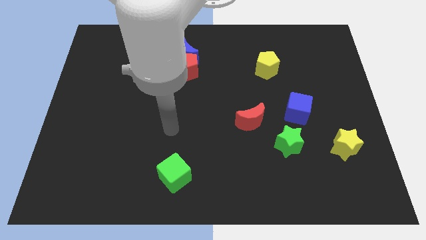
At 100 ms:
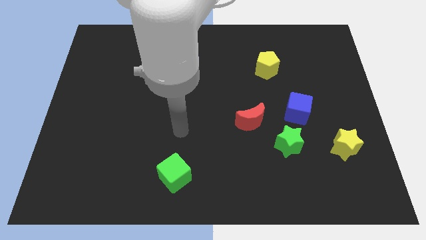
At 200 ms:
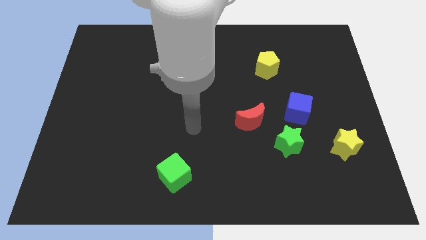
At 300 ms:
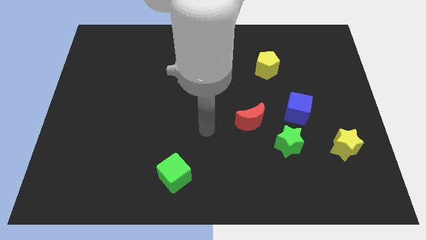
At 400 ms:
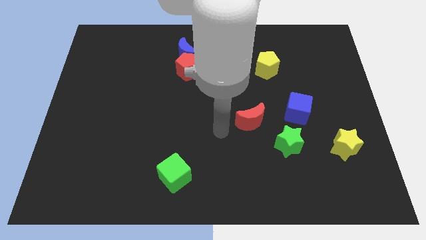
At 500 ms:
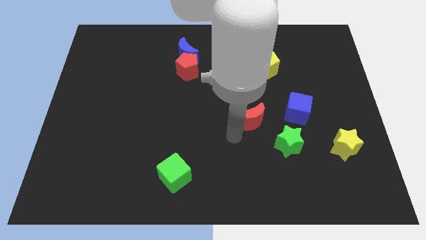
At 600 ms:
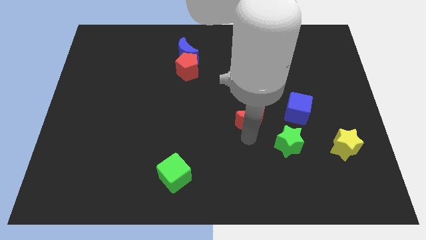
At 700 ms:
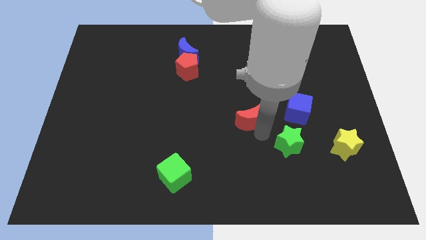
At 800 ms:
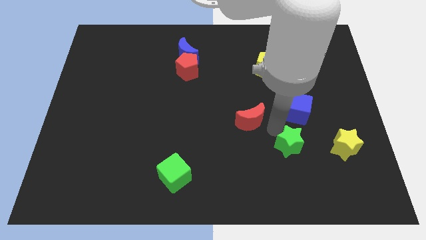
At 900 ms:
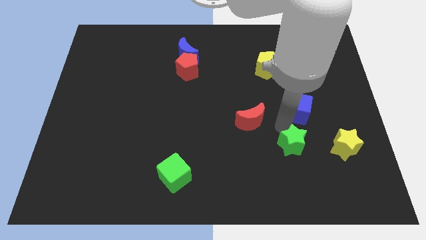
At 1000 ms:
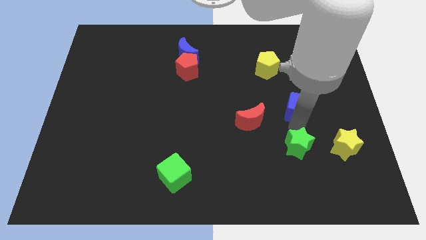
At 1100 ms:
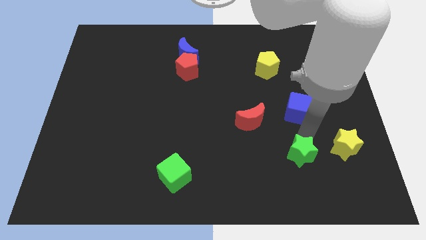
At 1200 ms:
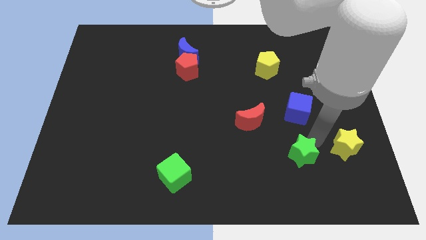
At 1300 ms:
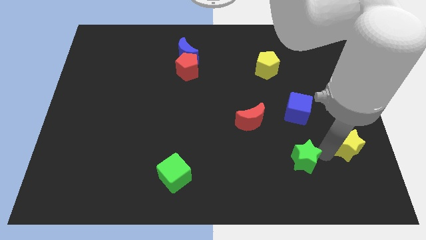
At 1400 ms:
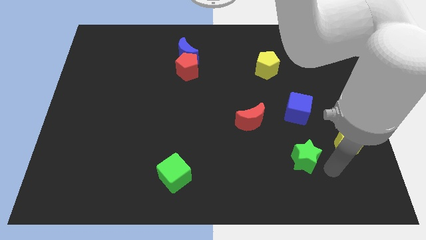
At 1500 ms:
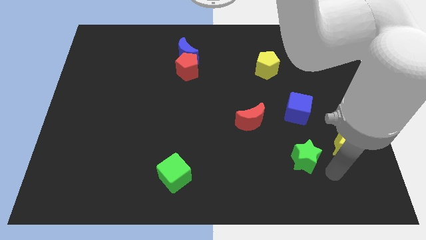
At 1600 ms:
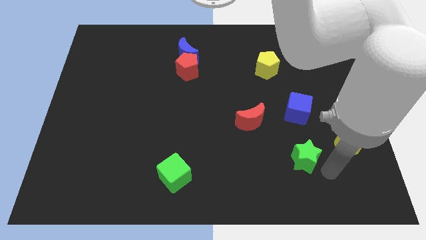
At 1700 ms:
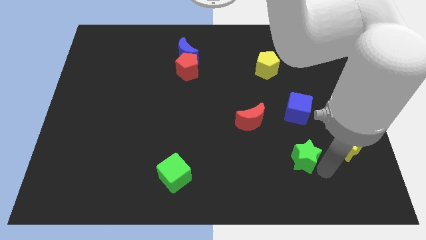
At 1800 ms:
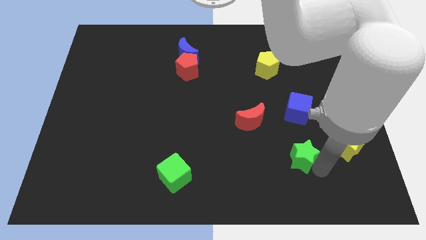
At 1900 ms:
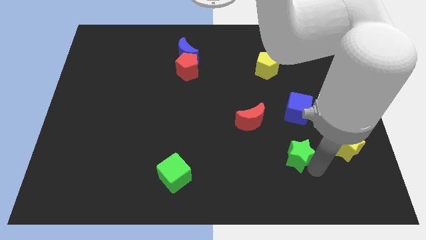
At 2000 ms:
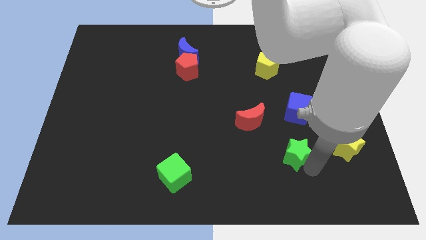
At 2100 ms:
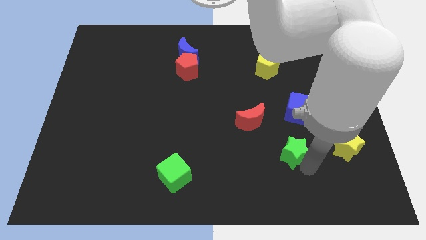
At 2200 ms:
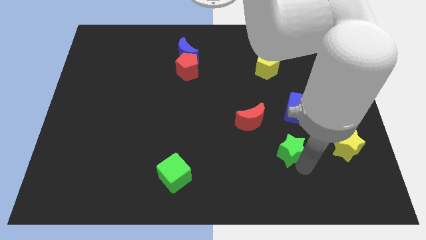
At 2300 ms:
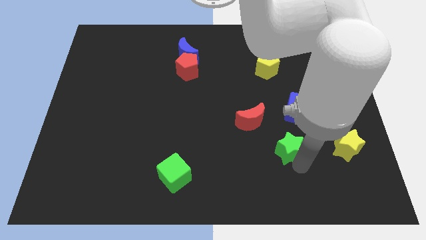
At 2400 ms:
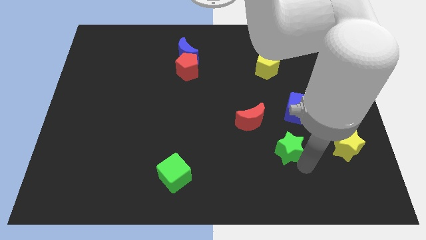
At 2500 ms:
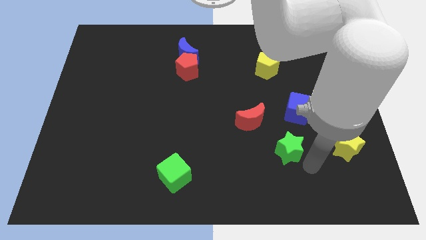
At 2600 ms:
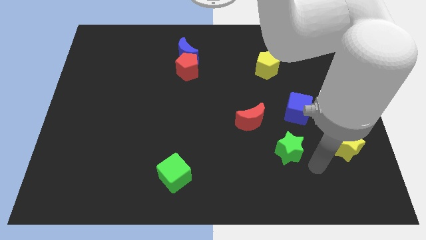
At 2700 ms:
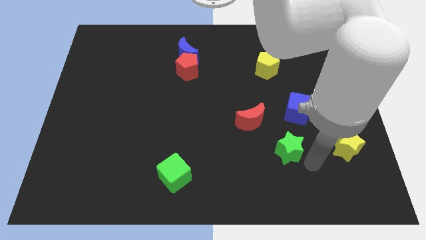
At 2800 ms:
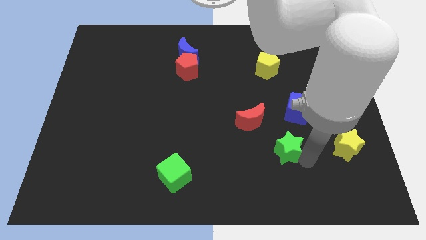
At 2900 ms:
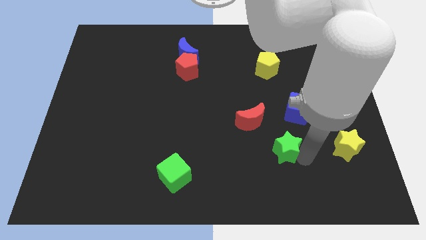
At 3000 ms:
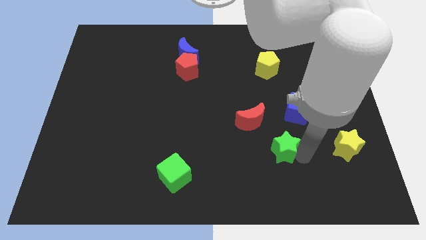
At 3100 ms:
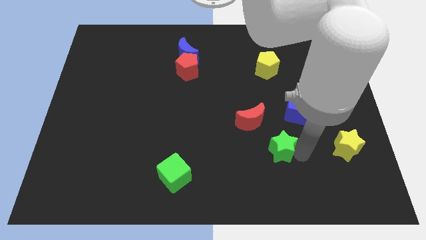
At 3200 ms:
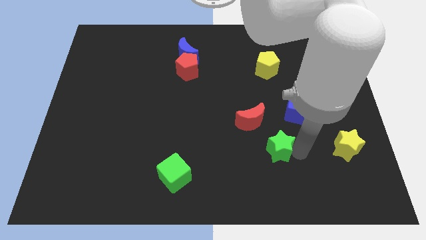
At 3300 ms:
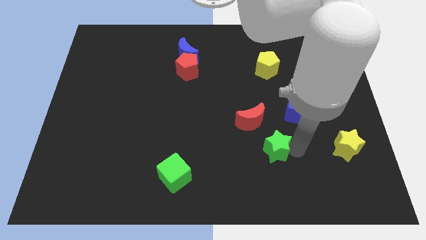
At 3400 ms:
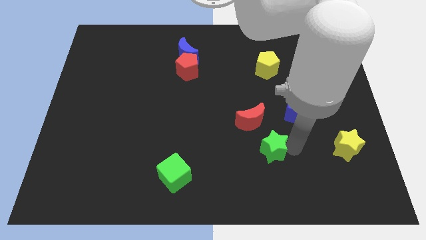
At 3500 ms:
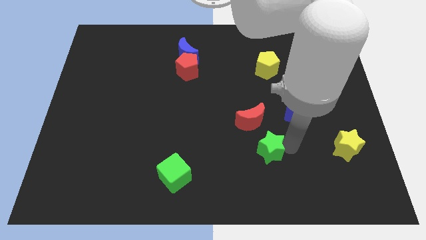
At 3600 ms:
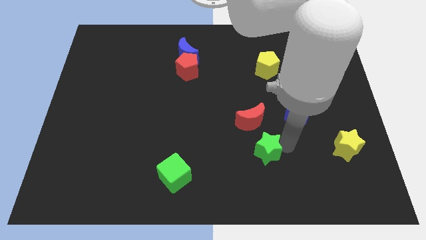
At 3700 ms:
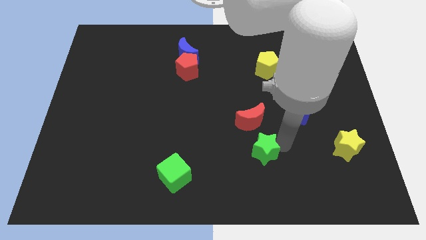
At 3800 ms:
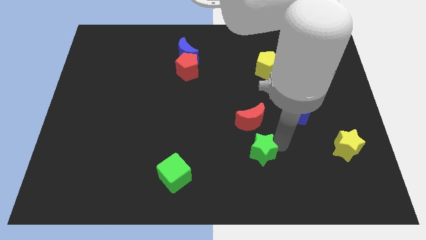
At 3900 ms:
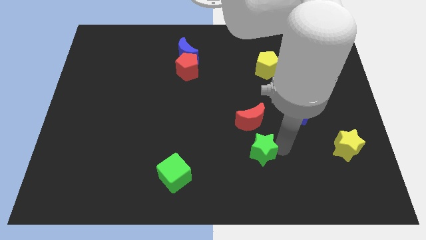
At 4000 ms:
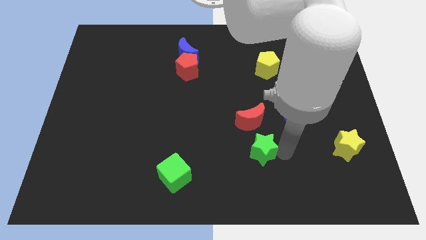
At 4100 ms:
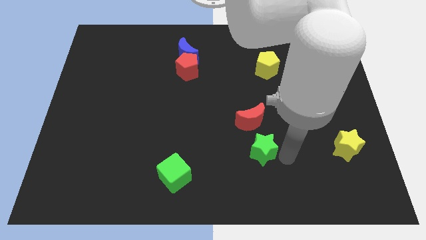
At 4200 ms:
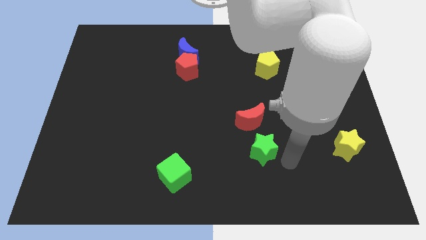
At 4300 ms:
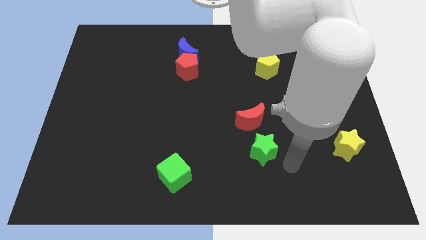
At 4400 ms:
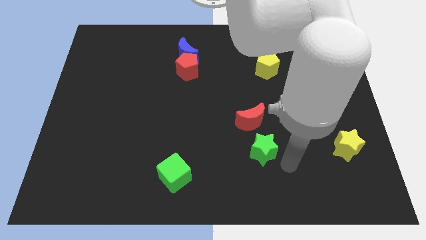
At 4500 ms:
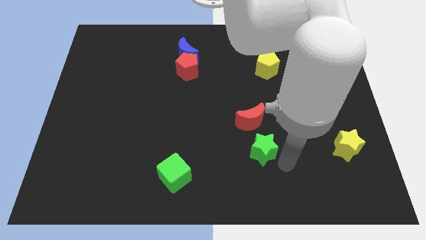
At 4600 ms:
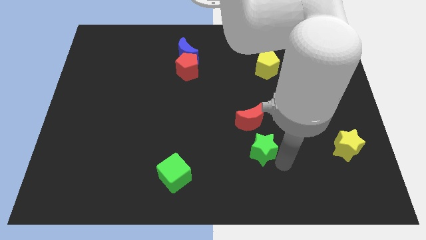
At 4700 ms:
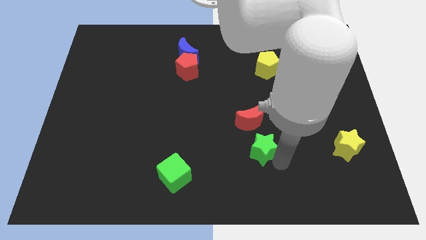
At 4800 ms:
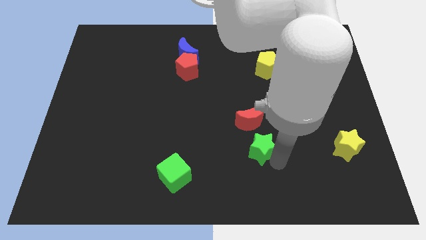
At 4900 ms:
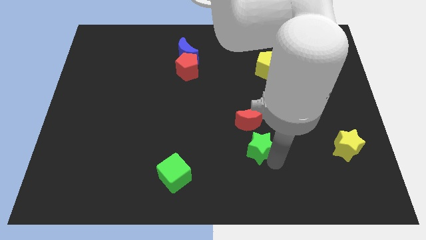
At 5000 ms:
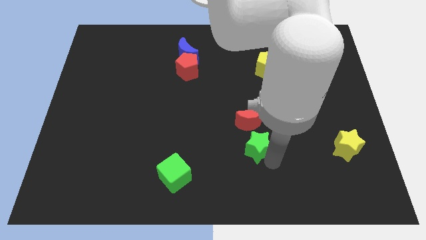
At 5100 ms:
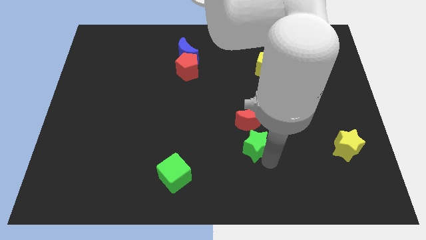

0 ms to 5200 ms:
move the green star a little left

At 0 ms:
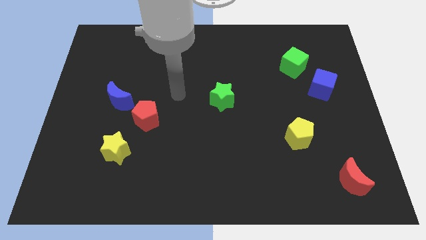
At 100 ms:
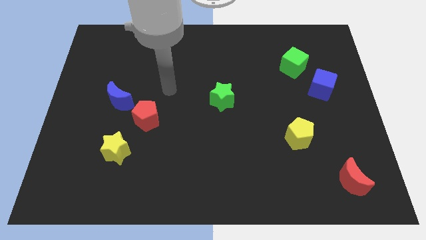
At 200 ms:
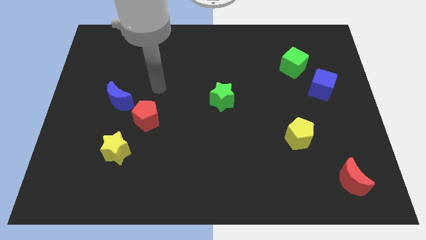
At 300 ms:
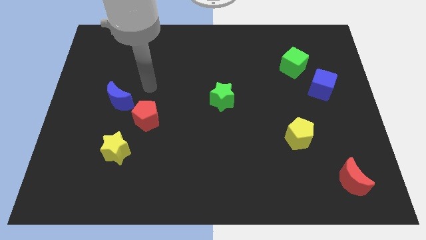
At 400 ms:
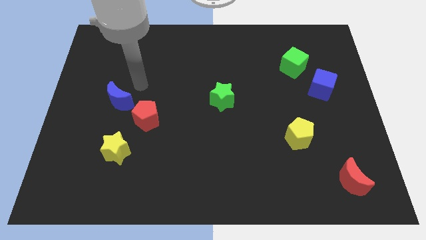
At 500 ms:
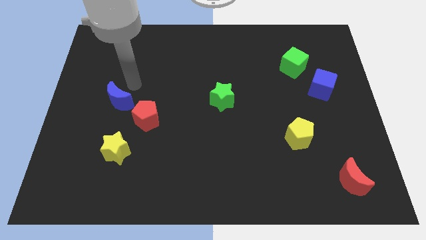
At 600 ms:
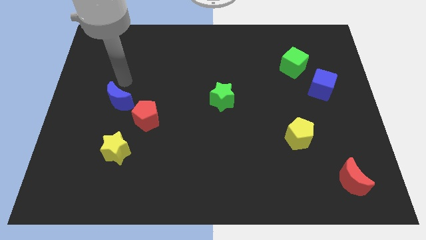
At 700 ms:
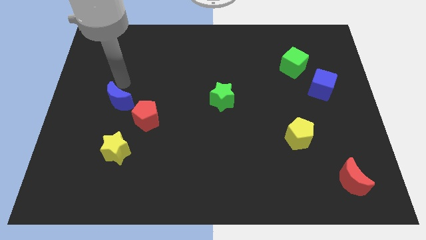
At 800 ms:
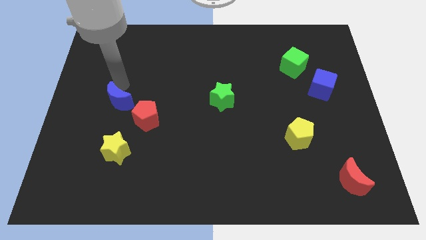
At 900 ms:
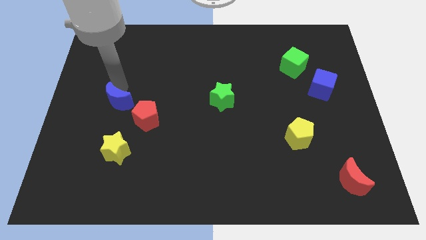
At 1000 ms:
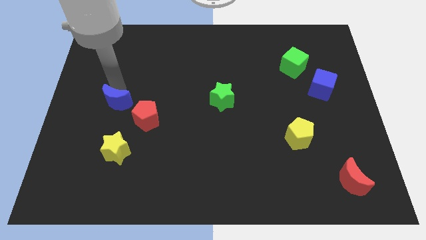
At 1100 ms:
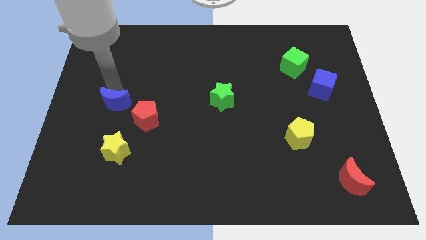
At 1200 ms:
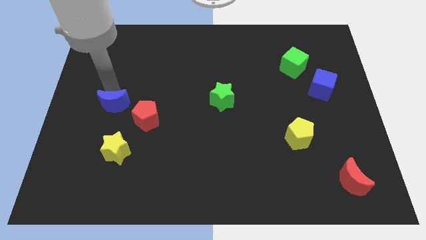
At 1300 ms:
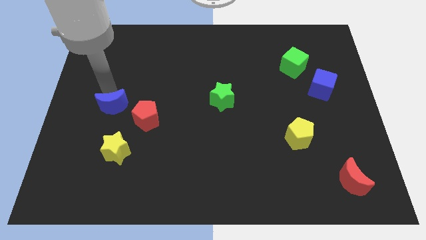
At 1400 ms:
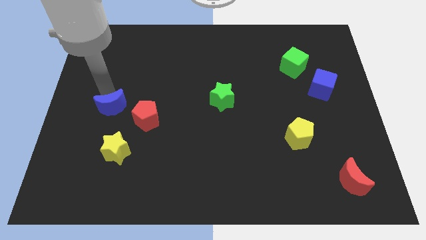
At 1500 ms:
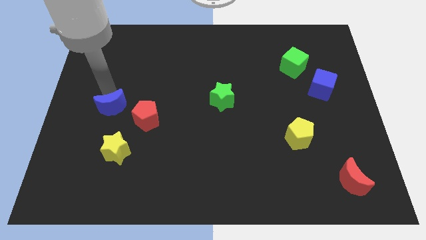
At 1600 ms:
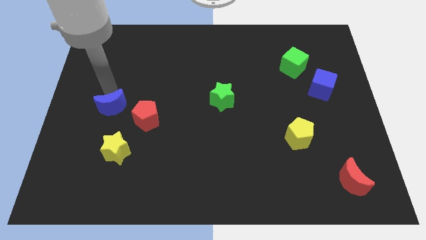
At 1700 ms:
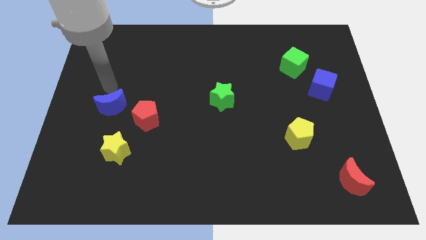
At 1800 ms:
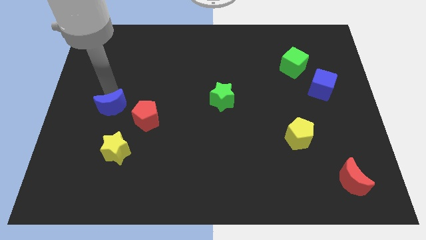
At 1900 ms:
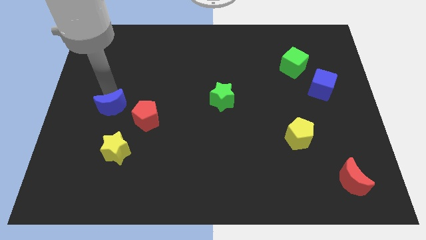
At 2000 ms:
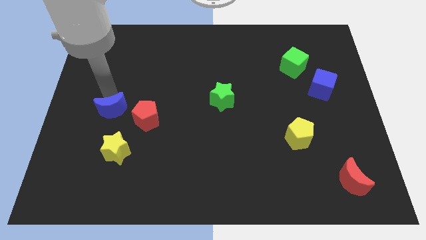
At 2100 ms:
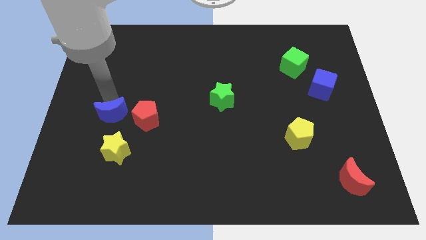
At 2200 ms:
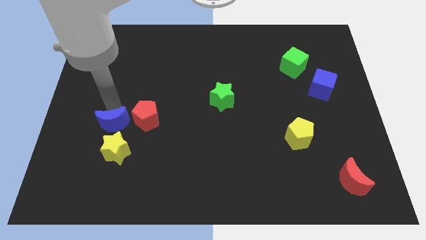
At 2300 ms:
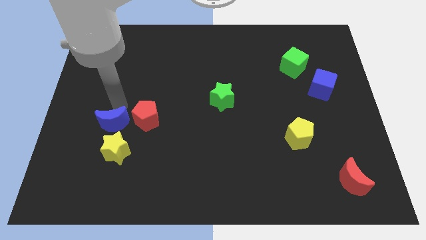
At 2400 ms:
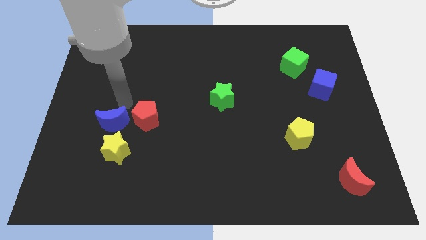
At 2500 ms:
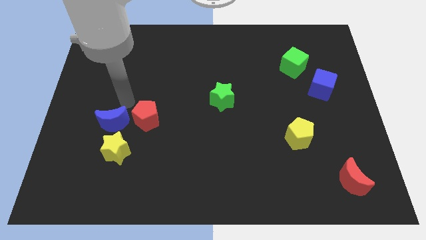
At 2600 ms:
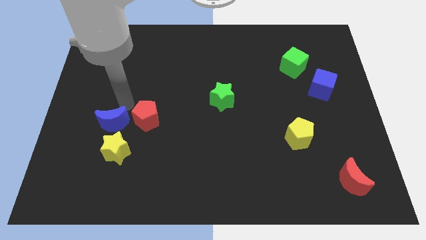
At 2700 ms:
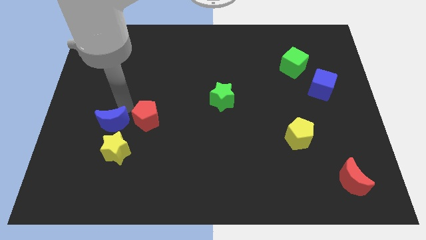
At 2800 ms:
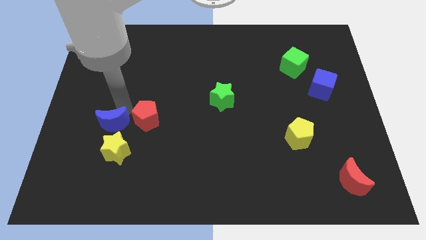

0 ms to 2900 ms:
move the blue moon down a little

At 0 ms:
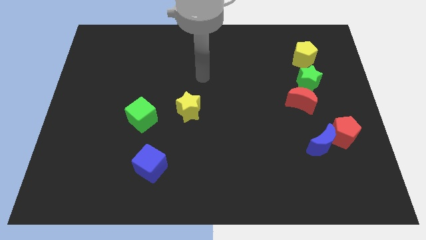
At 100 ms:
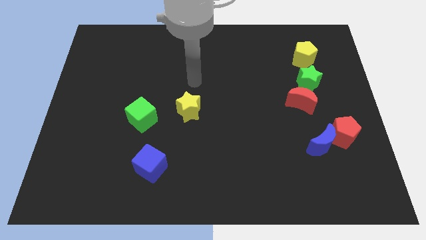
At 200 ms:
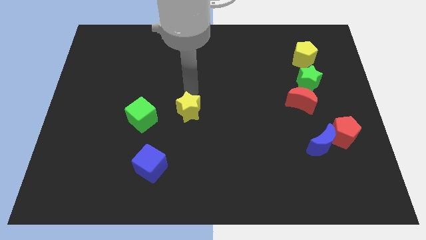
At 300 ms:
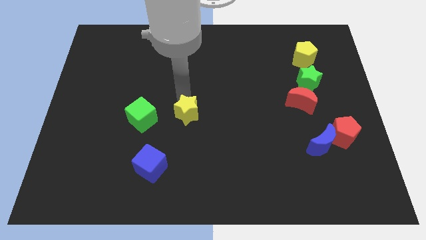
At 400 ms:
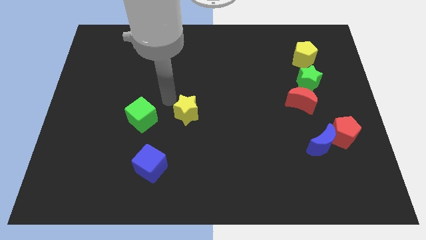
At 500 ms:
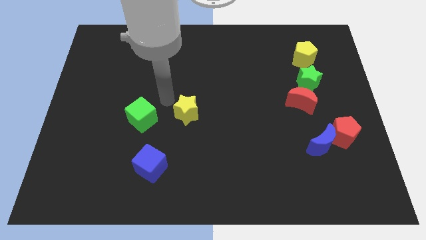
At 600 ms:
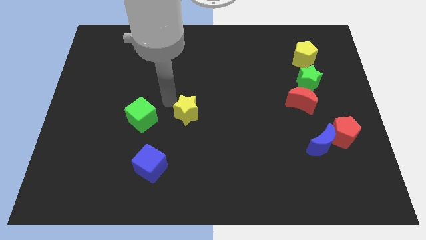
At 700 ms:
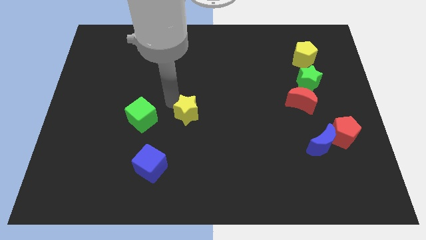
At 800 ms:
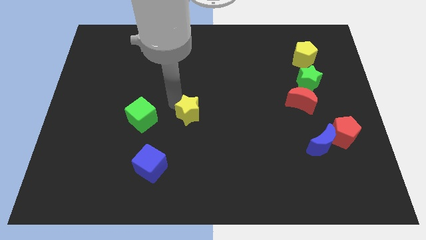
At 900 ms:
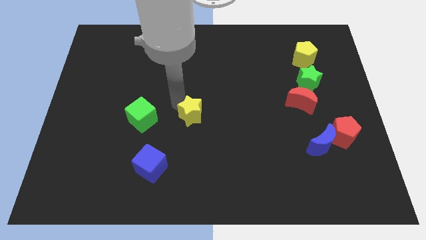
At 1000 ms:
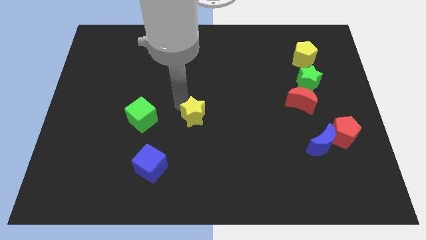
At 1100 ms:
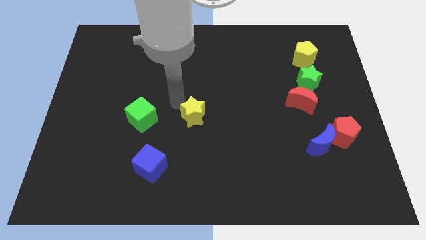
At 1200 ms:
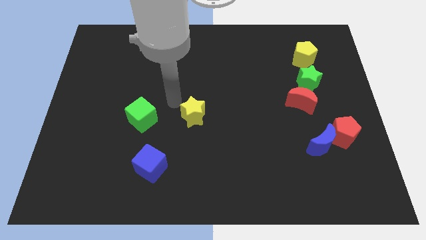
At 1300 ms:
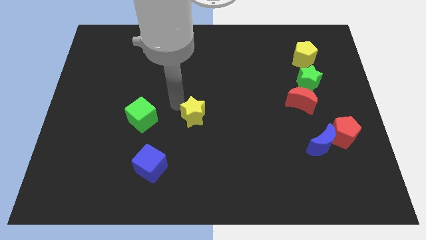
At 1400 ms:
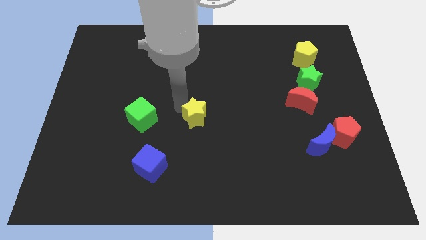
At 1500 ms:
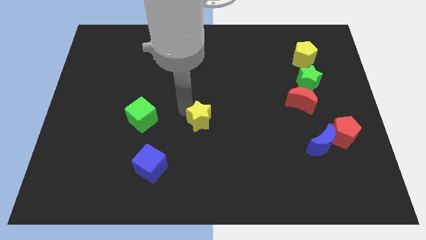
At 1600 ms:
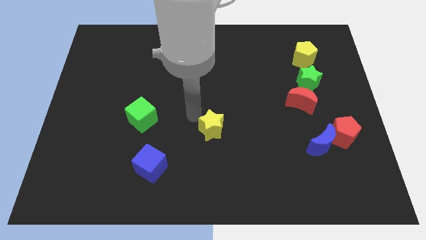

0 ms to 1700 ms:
push the yellow star somewhat diagonally down and to the right
